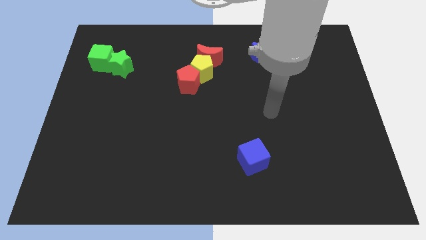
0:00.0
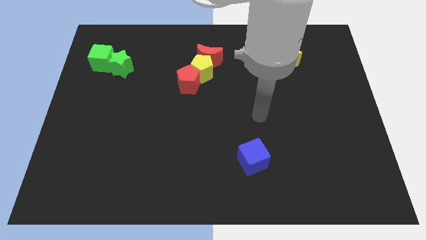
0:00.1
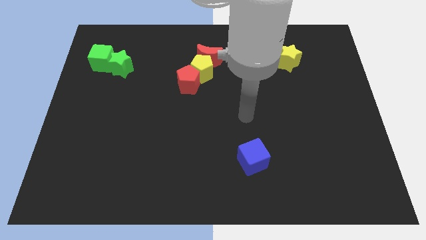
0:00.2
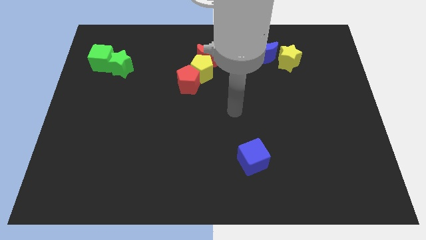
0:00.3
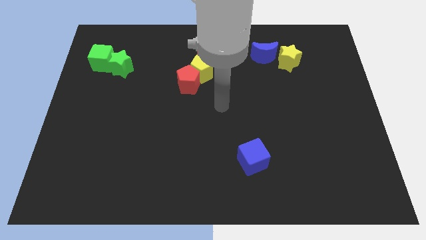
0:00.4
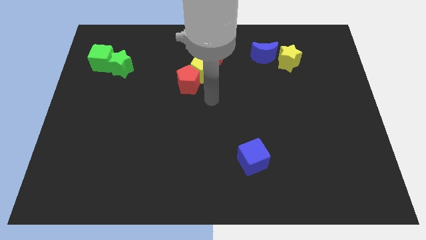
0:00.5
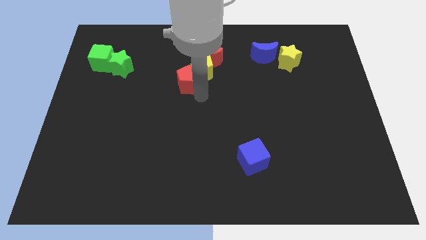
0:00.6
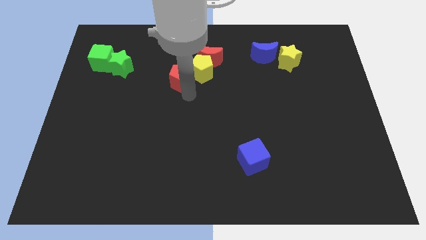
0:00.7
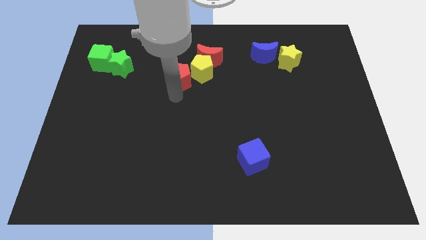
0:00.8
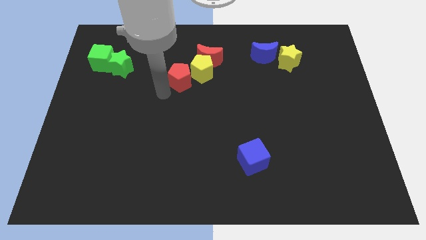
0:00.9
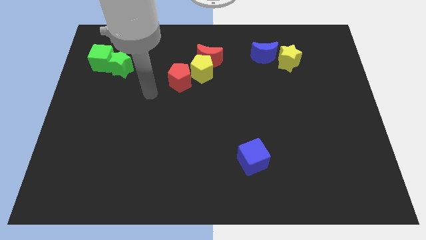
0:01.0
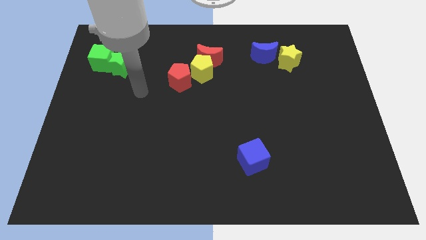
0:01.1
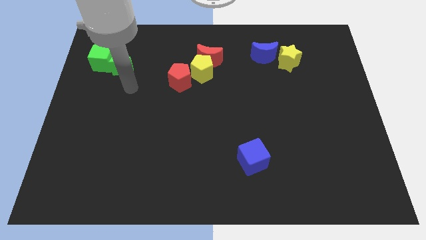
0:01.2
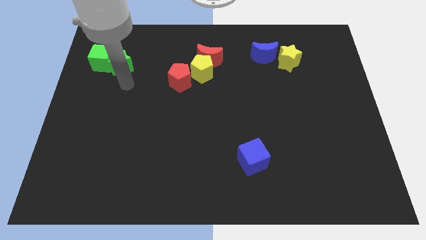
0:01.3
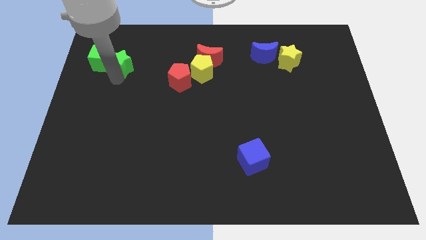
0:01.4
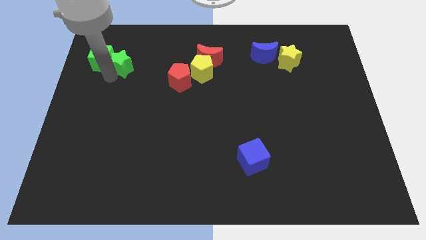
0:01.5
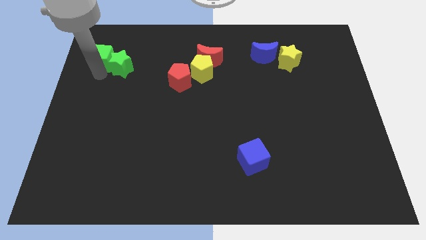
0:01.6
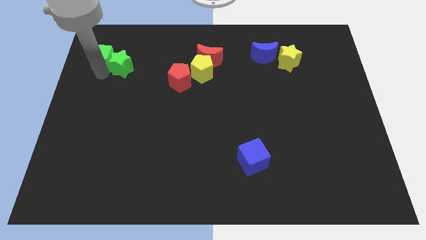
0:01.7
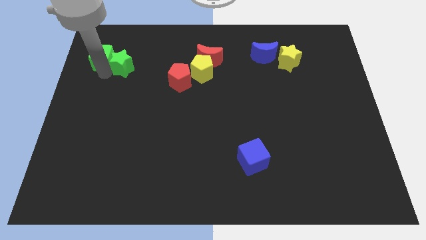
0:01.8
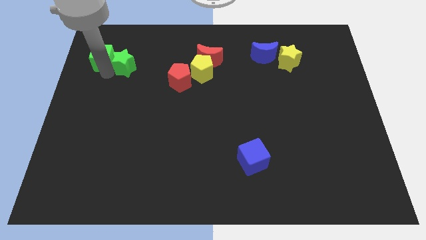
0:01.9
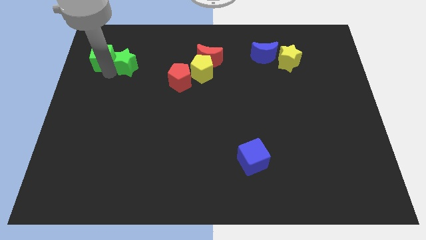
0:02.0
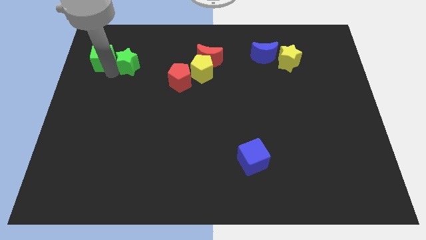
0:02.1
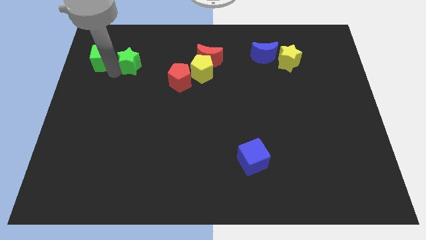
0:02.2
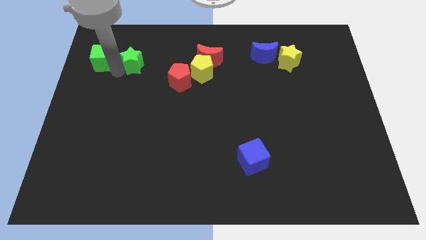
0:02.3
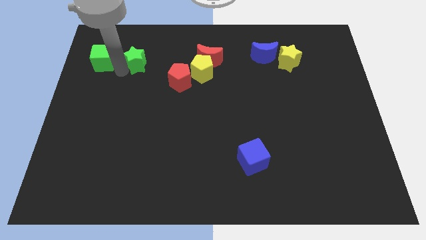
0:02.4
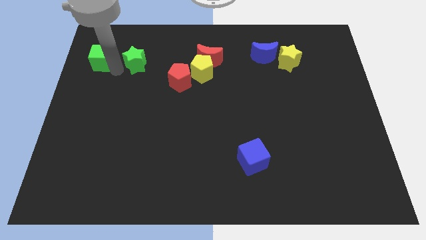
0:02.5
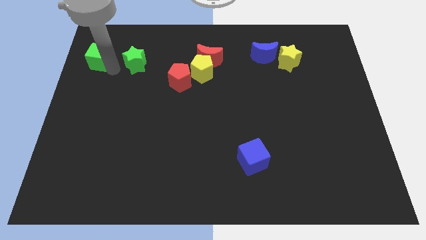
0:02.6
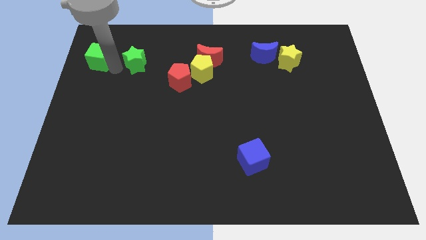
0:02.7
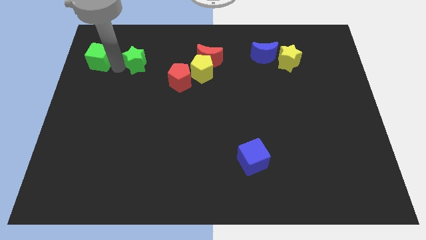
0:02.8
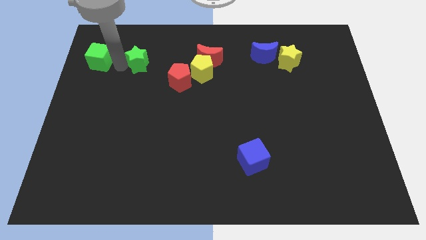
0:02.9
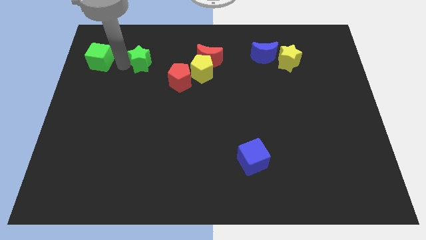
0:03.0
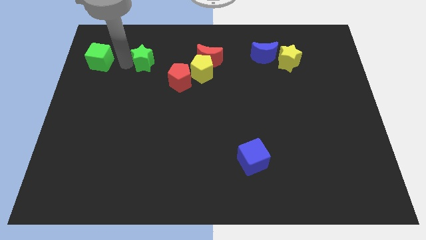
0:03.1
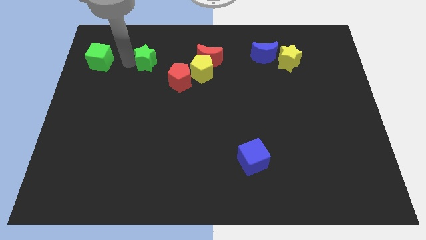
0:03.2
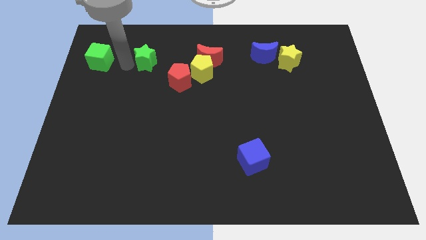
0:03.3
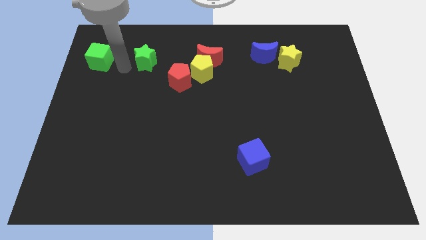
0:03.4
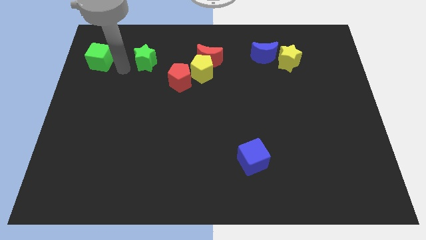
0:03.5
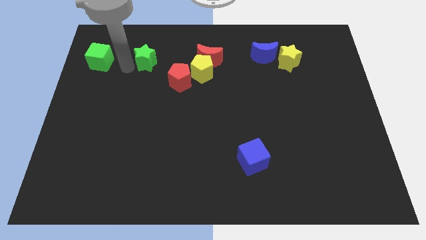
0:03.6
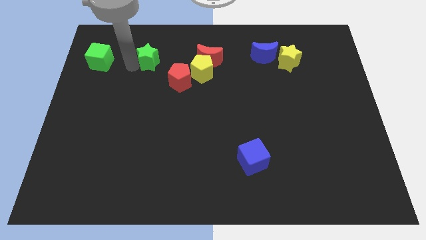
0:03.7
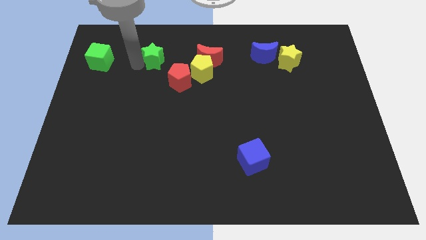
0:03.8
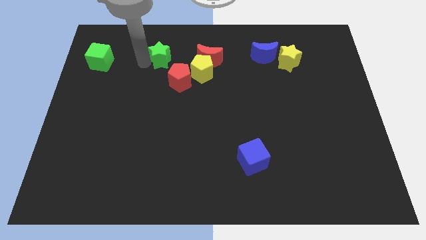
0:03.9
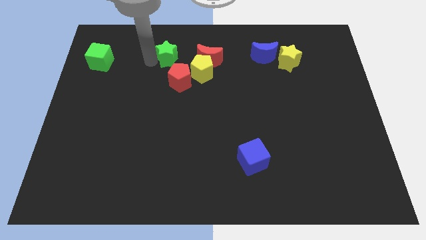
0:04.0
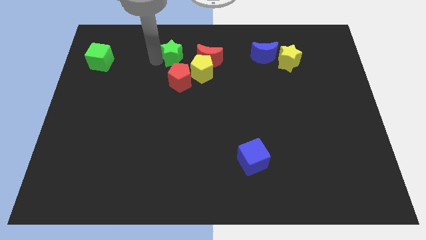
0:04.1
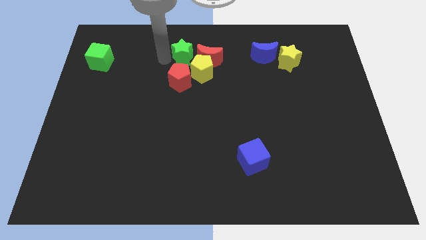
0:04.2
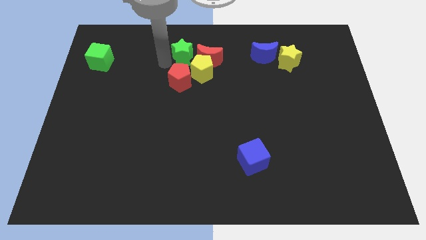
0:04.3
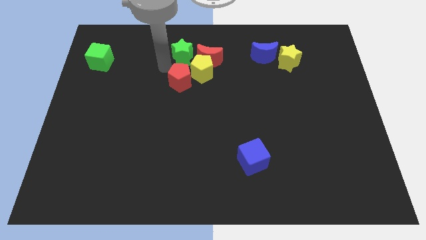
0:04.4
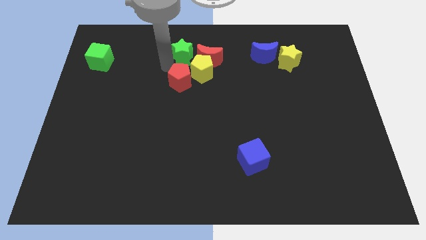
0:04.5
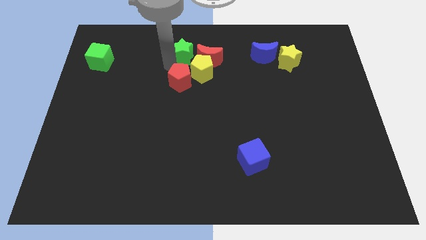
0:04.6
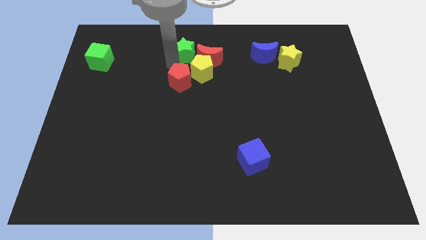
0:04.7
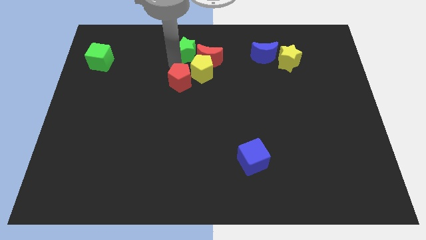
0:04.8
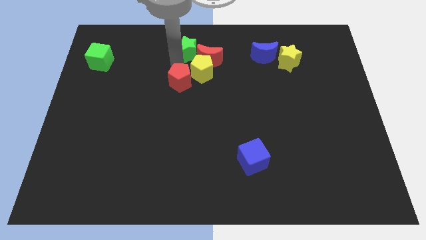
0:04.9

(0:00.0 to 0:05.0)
slide the green star to the top side

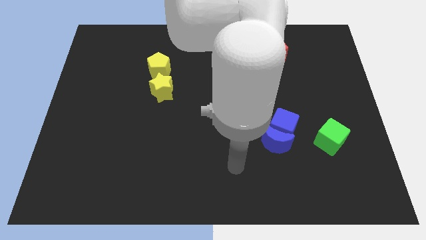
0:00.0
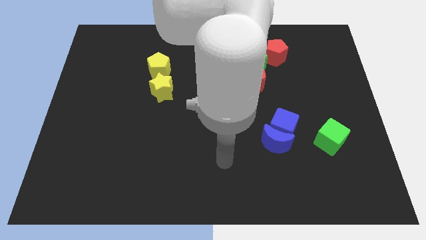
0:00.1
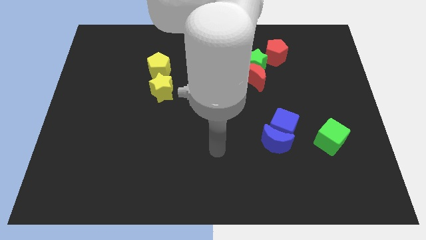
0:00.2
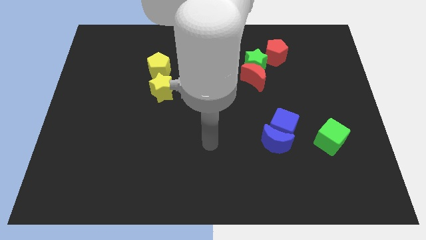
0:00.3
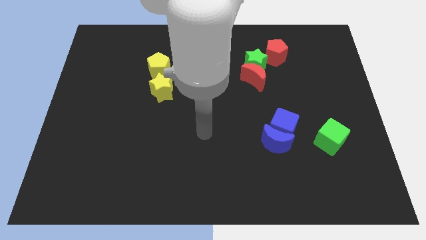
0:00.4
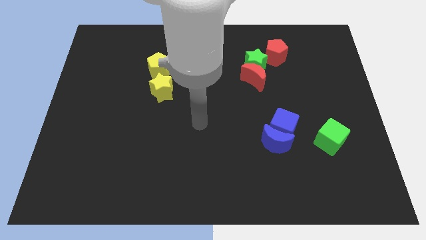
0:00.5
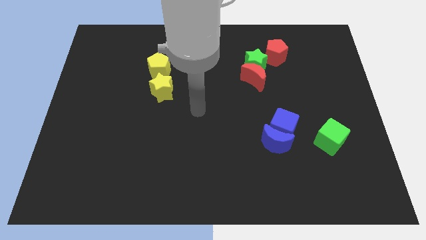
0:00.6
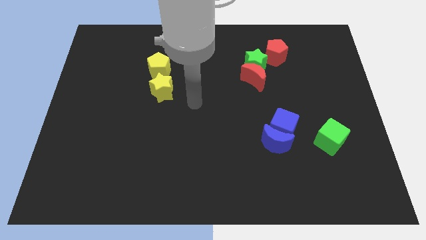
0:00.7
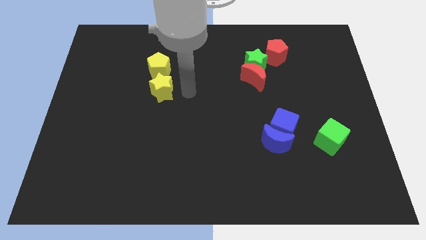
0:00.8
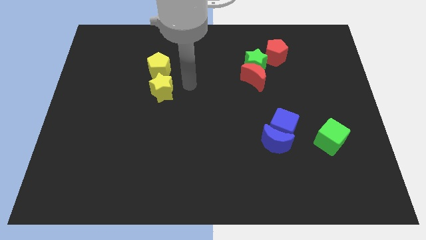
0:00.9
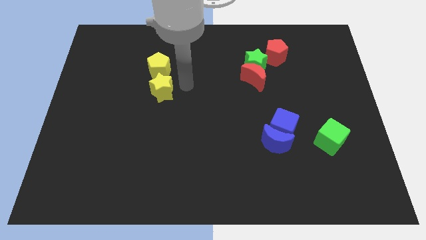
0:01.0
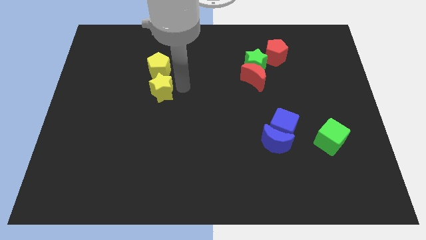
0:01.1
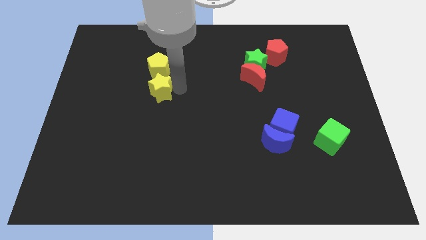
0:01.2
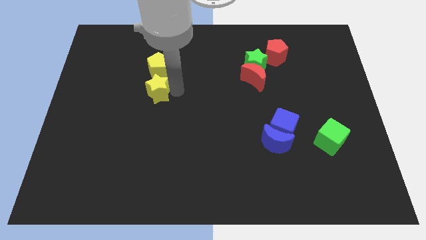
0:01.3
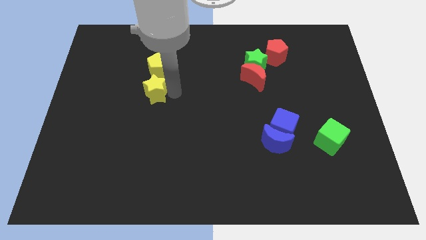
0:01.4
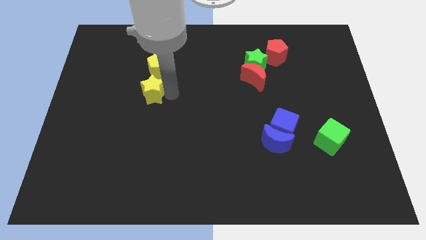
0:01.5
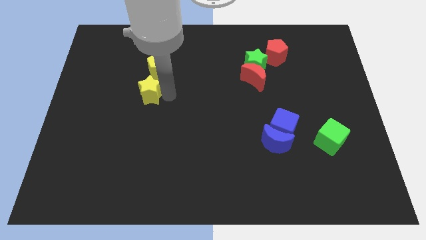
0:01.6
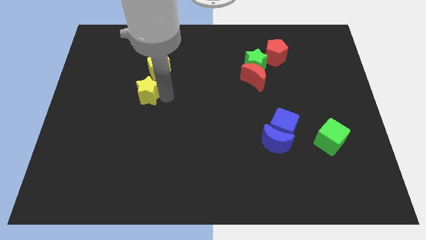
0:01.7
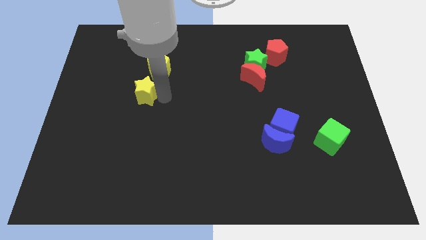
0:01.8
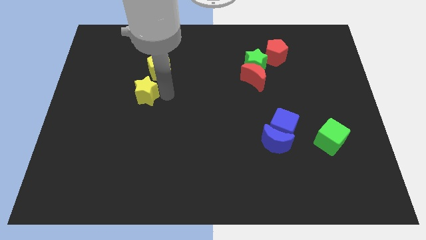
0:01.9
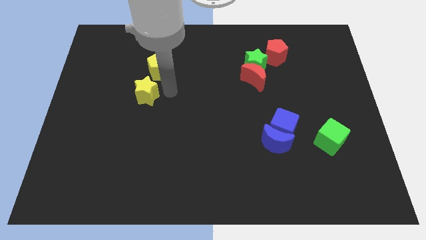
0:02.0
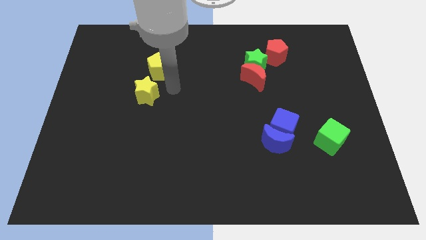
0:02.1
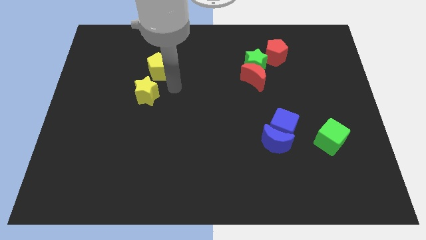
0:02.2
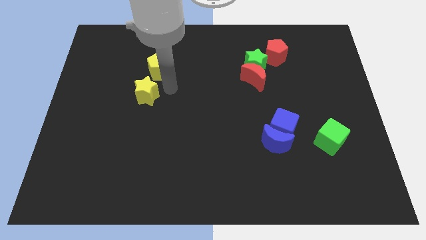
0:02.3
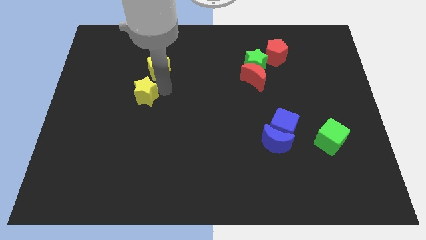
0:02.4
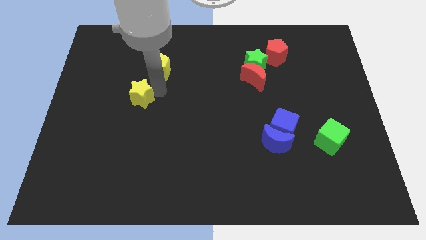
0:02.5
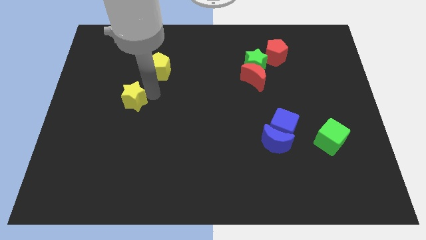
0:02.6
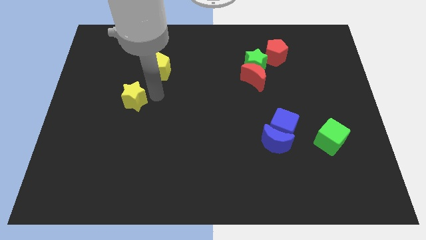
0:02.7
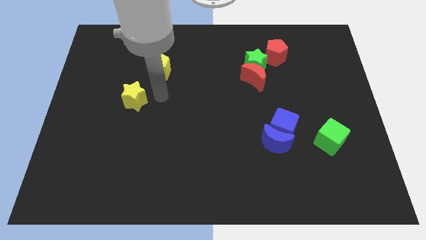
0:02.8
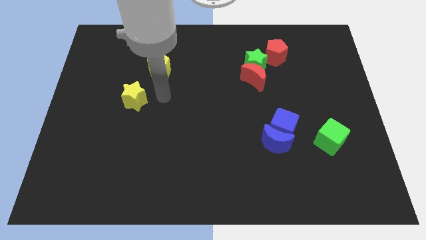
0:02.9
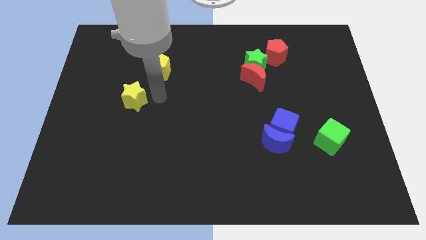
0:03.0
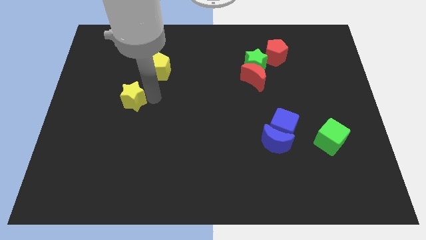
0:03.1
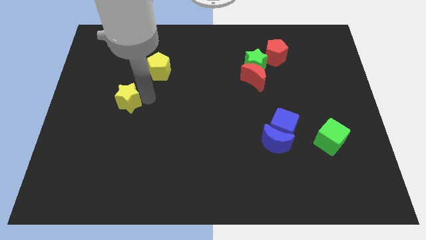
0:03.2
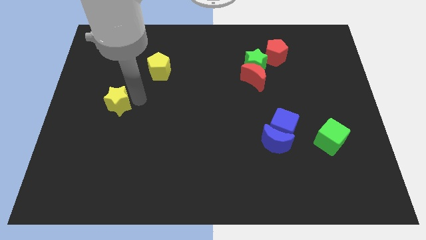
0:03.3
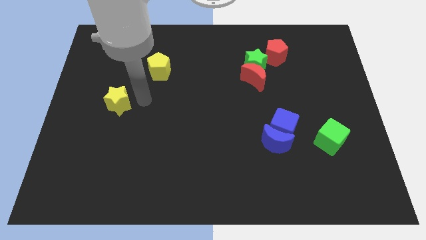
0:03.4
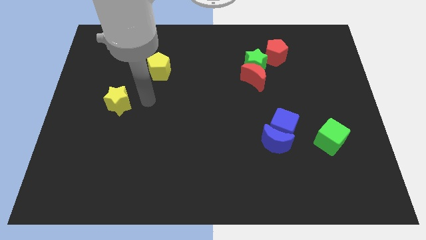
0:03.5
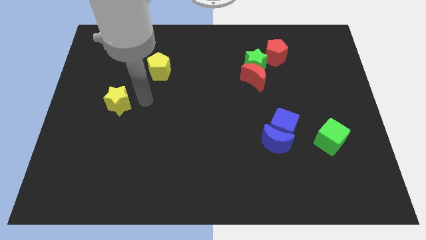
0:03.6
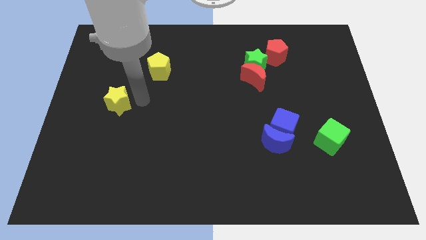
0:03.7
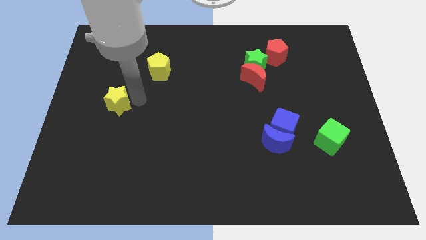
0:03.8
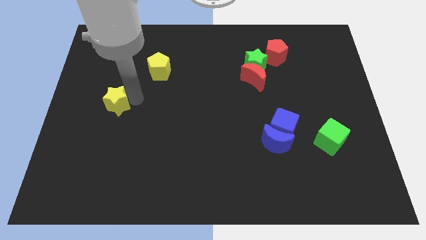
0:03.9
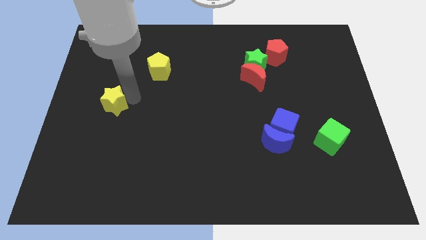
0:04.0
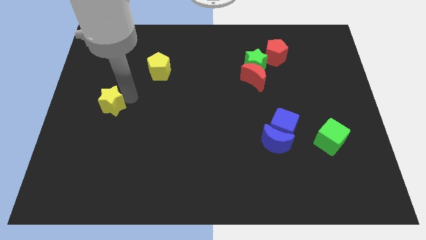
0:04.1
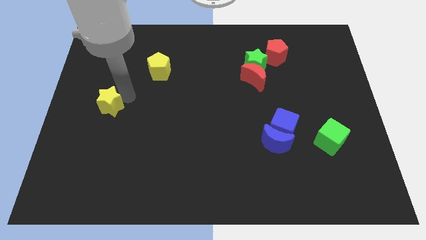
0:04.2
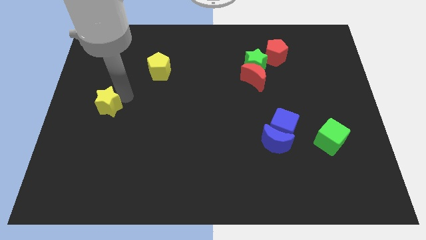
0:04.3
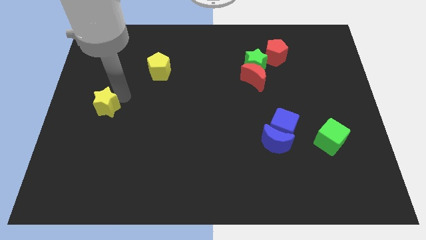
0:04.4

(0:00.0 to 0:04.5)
move the yellow star to the left side of the board
